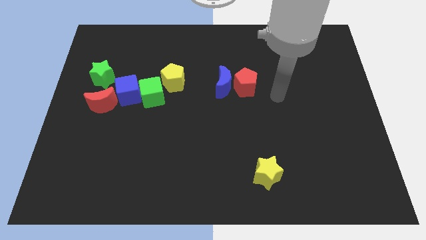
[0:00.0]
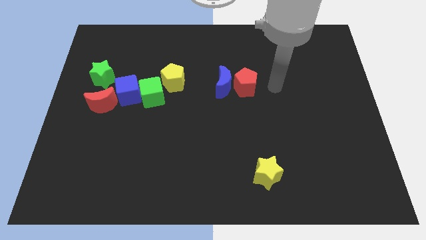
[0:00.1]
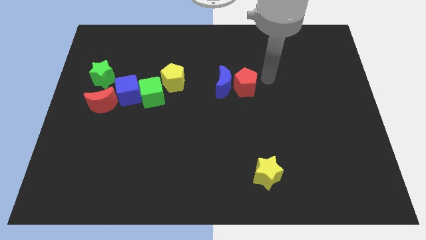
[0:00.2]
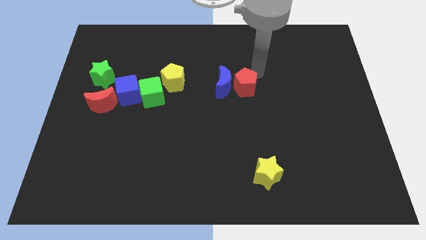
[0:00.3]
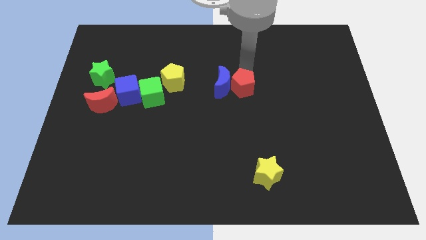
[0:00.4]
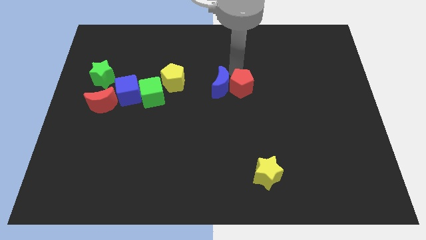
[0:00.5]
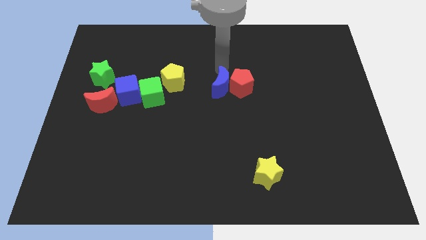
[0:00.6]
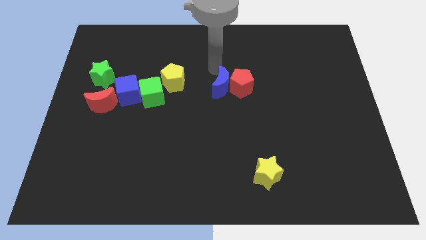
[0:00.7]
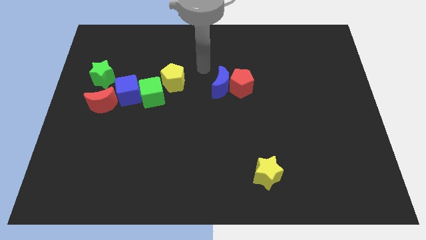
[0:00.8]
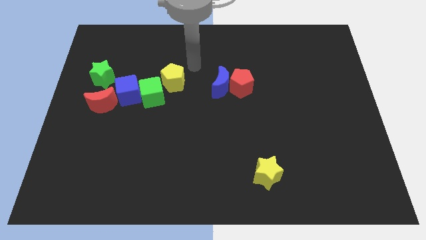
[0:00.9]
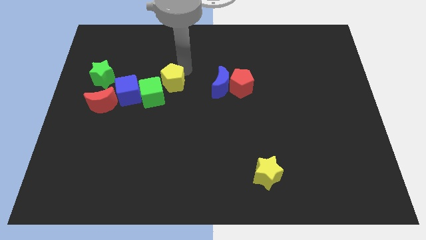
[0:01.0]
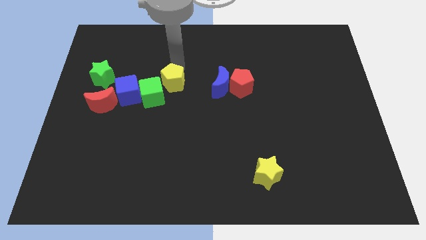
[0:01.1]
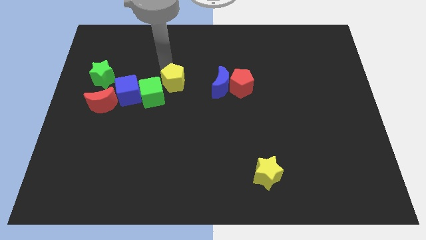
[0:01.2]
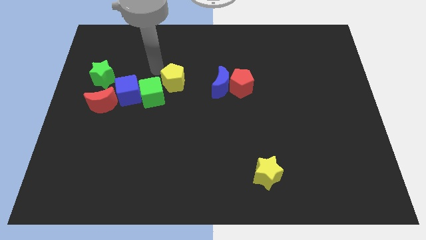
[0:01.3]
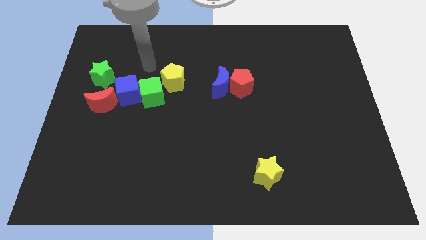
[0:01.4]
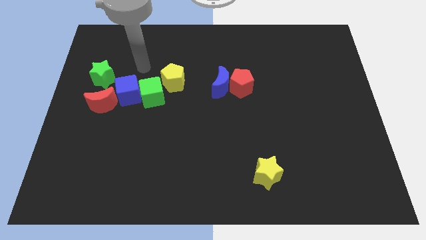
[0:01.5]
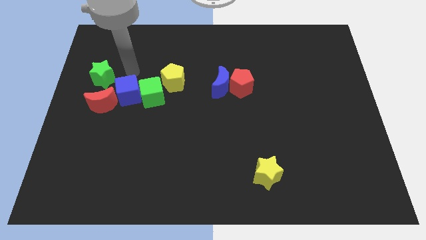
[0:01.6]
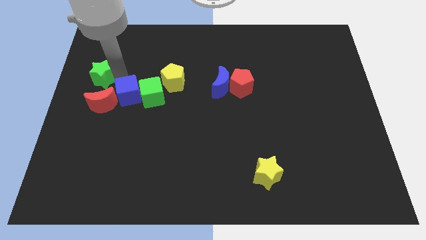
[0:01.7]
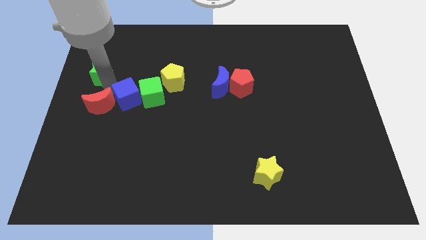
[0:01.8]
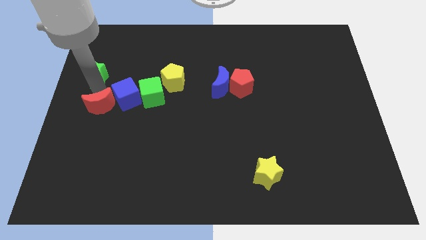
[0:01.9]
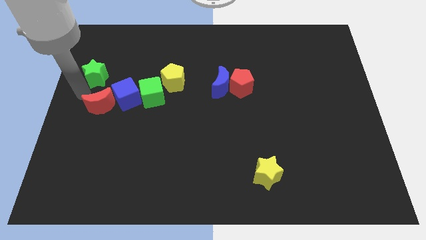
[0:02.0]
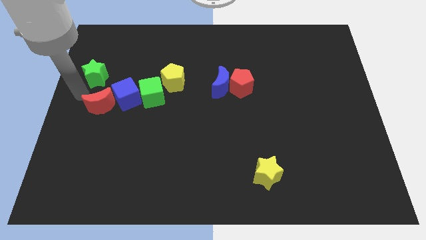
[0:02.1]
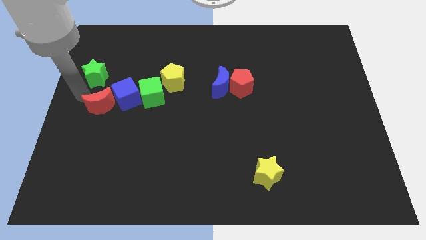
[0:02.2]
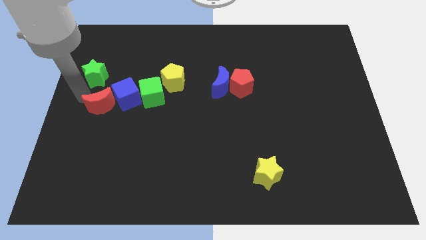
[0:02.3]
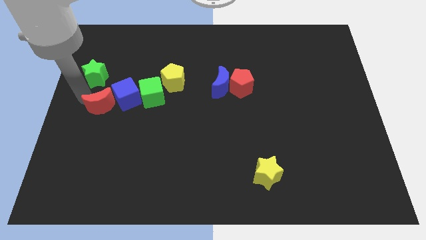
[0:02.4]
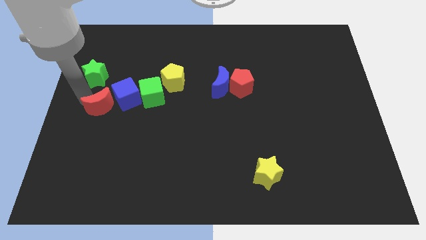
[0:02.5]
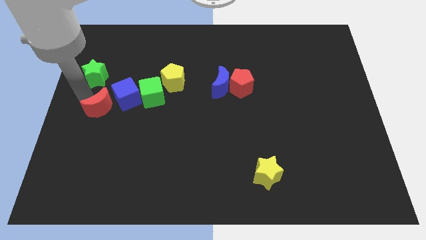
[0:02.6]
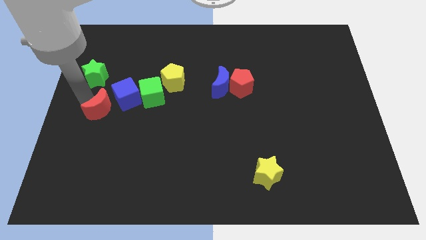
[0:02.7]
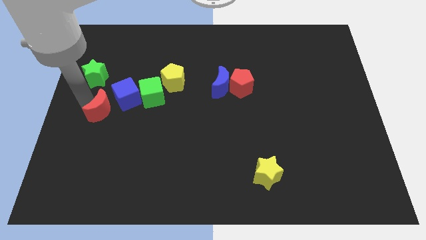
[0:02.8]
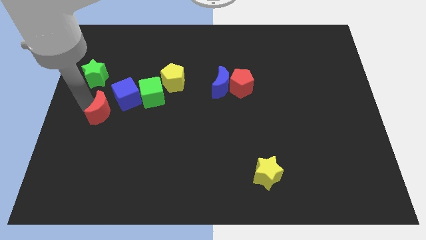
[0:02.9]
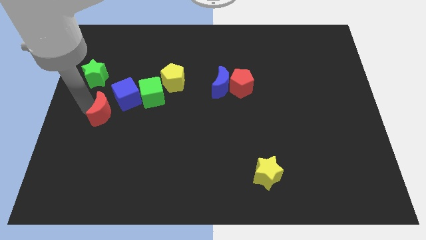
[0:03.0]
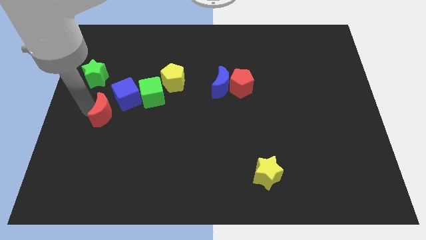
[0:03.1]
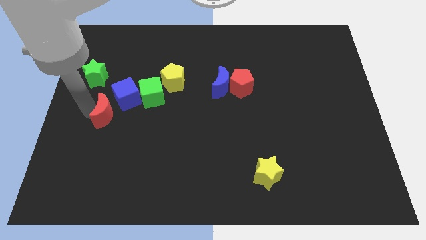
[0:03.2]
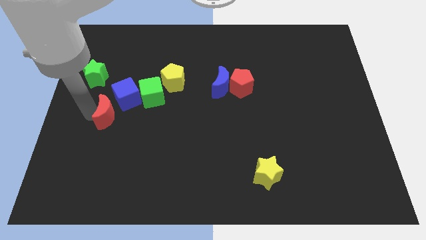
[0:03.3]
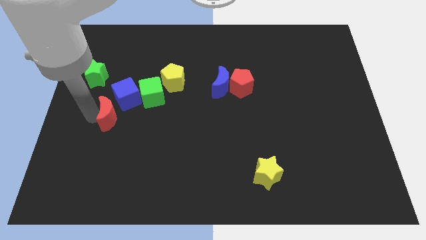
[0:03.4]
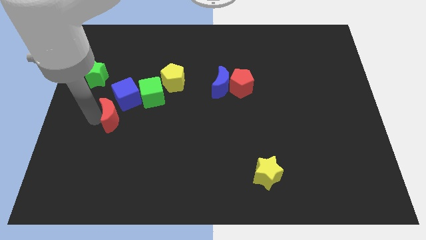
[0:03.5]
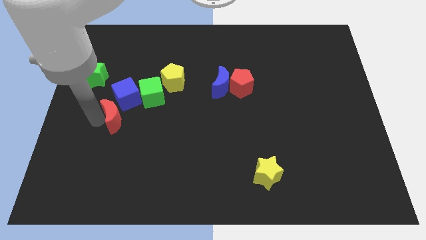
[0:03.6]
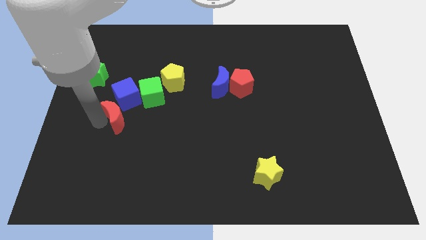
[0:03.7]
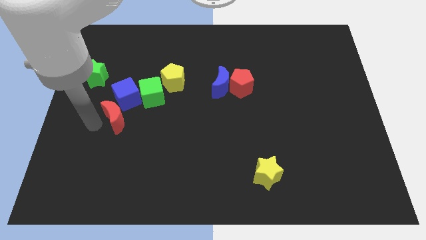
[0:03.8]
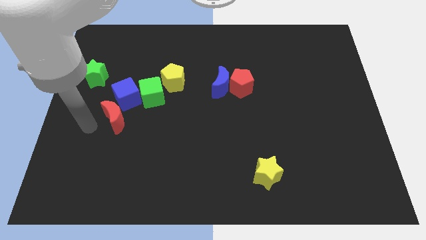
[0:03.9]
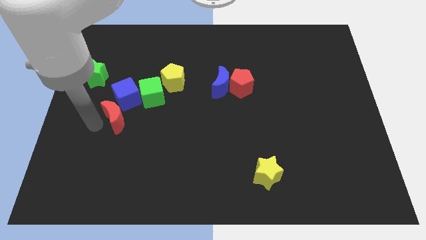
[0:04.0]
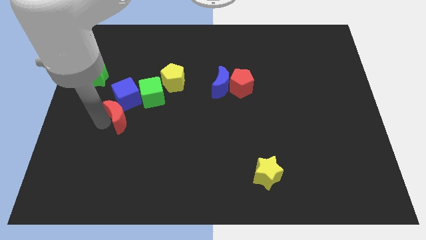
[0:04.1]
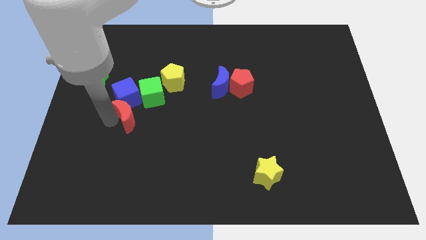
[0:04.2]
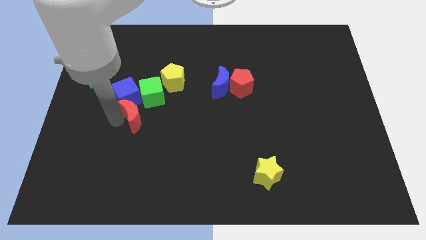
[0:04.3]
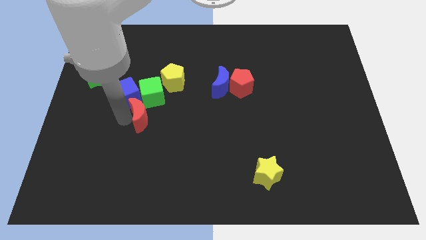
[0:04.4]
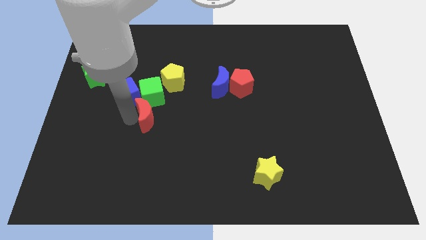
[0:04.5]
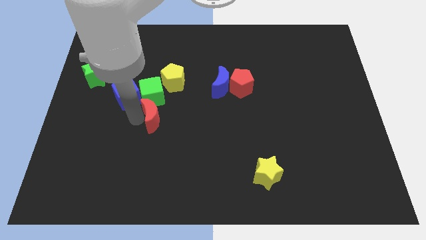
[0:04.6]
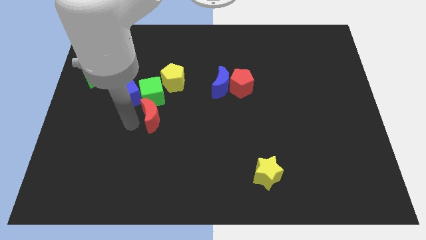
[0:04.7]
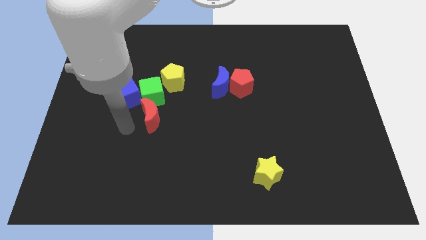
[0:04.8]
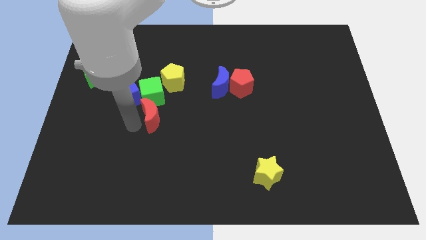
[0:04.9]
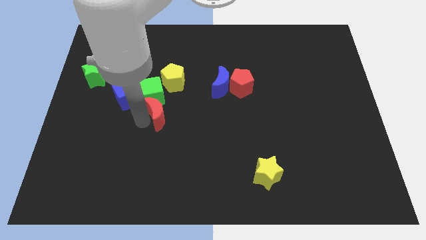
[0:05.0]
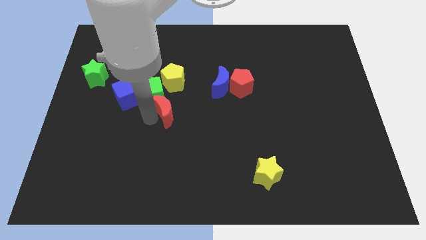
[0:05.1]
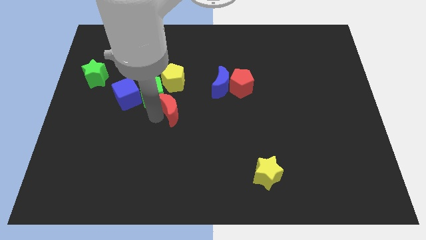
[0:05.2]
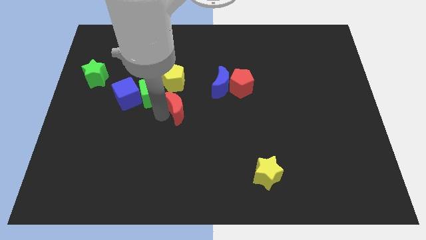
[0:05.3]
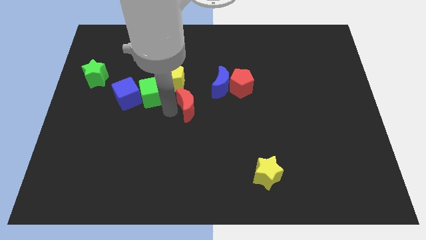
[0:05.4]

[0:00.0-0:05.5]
move the red moon right

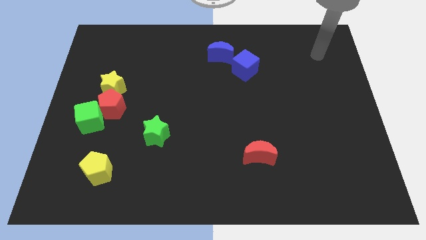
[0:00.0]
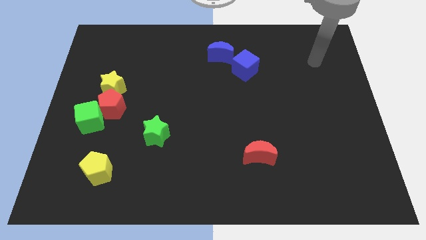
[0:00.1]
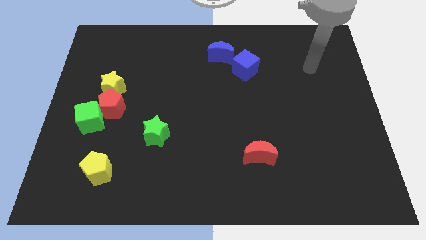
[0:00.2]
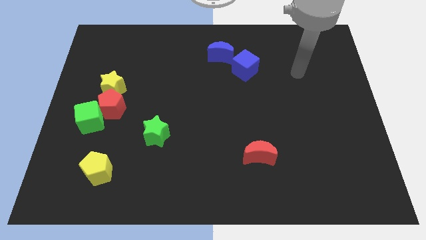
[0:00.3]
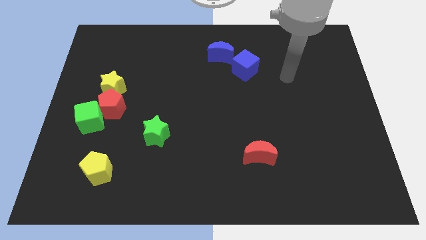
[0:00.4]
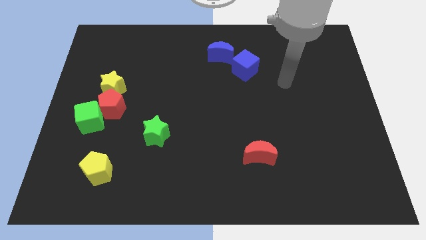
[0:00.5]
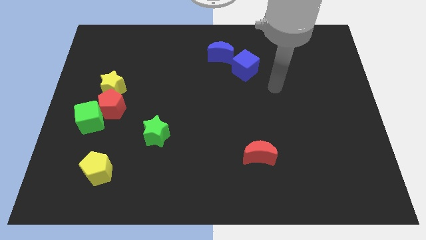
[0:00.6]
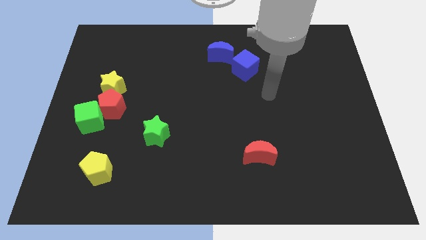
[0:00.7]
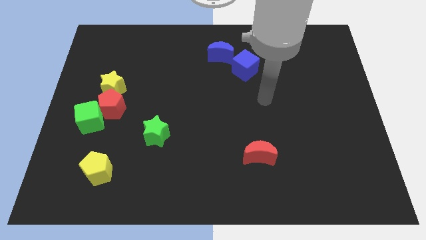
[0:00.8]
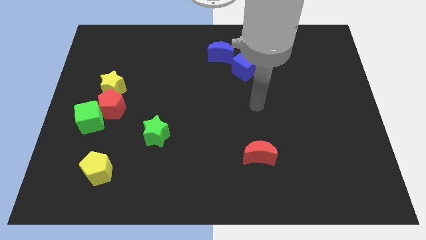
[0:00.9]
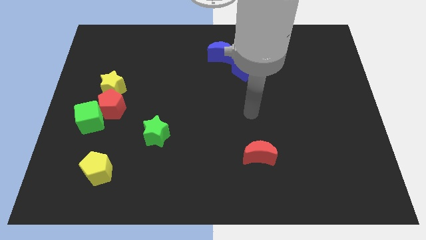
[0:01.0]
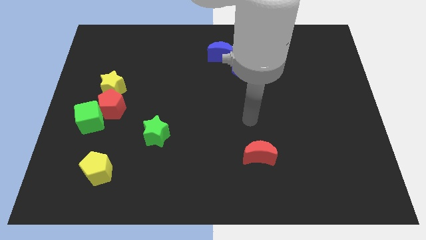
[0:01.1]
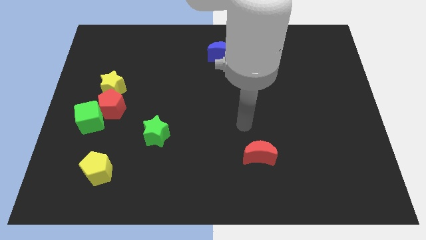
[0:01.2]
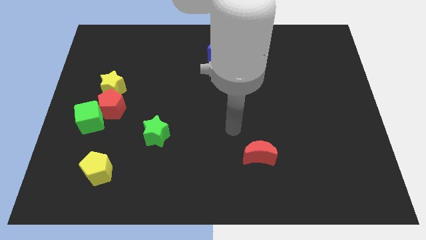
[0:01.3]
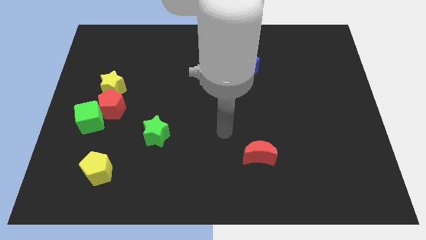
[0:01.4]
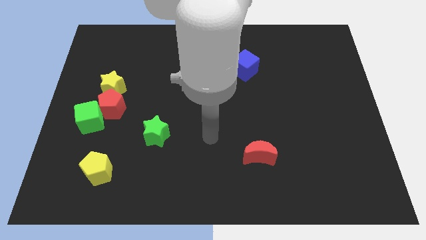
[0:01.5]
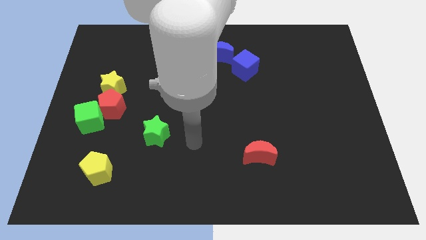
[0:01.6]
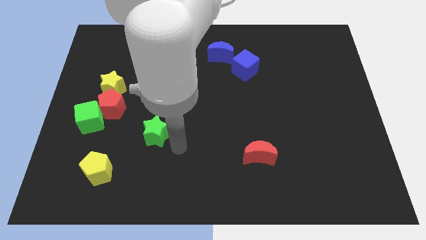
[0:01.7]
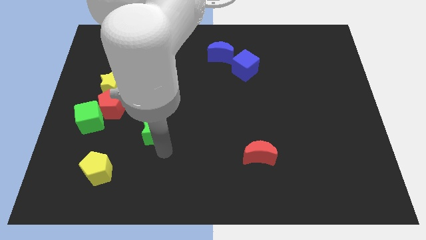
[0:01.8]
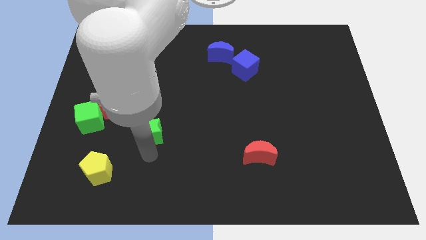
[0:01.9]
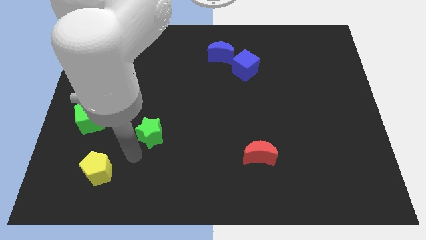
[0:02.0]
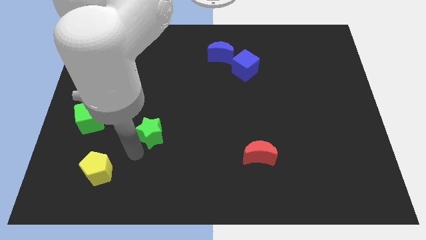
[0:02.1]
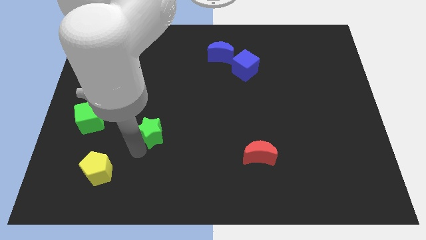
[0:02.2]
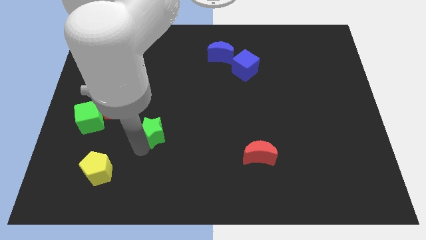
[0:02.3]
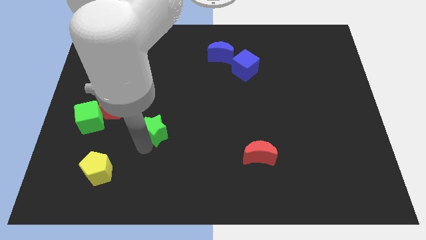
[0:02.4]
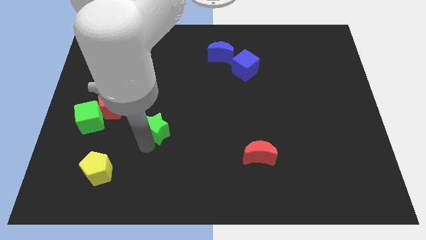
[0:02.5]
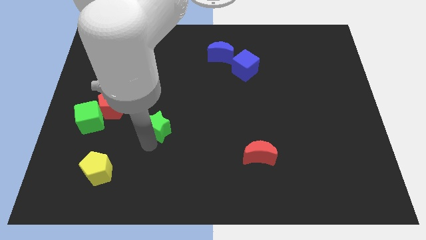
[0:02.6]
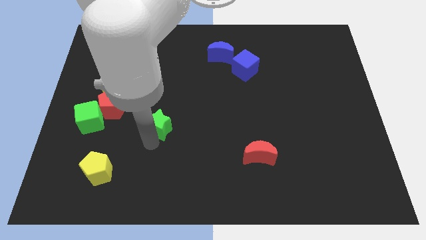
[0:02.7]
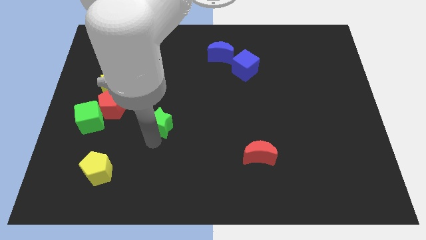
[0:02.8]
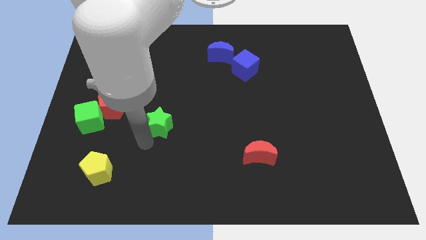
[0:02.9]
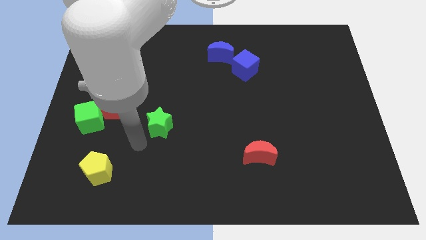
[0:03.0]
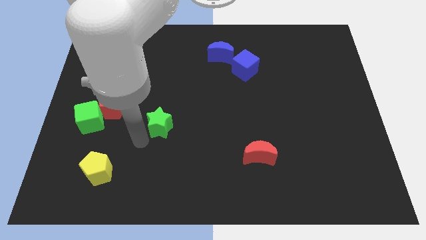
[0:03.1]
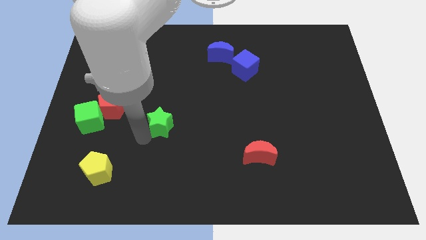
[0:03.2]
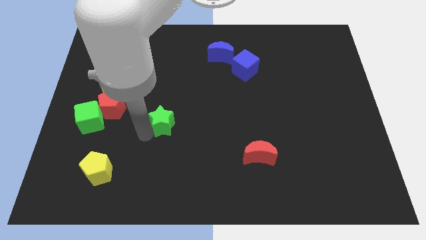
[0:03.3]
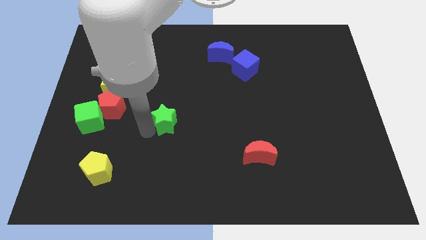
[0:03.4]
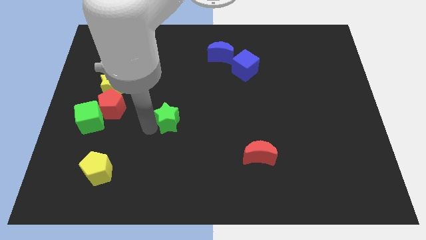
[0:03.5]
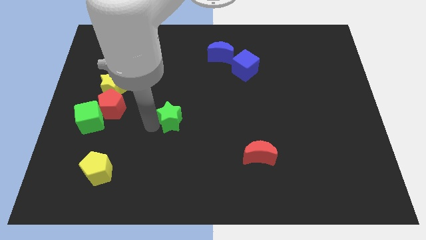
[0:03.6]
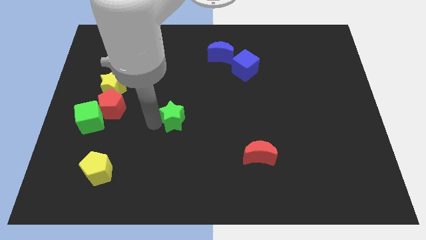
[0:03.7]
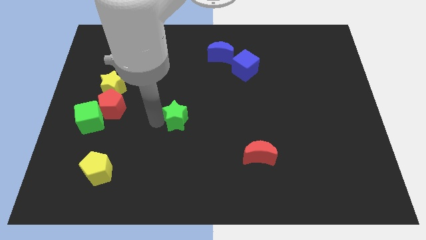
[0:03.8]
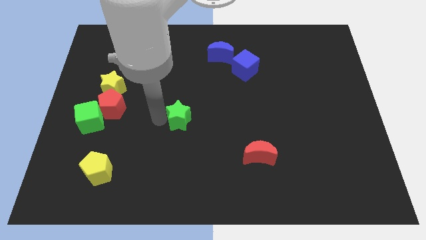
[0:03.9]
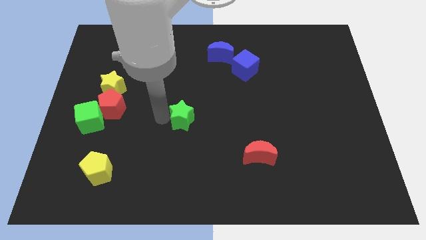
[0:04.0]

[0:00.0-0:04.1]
move the green star diagonally upwards and right slightly
